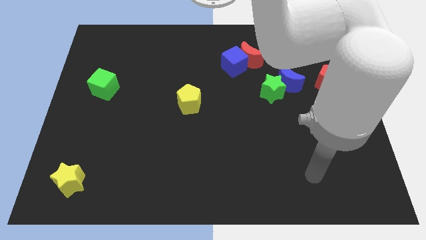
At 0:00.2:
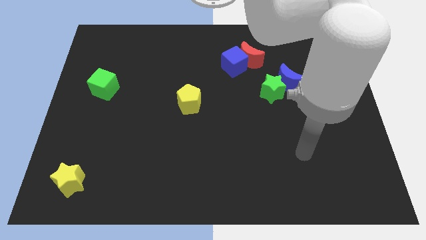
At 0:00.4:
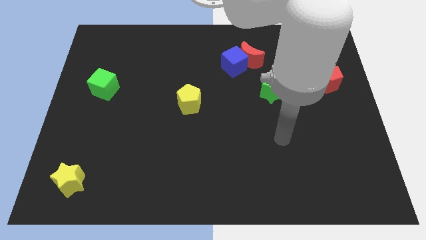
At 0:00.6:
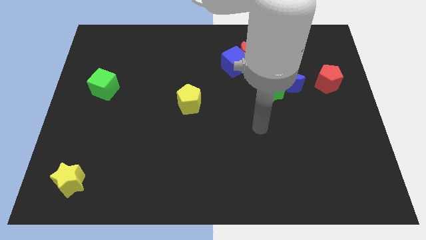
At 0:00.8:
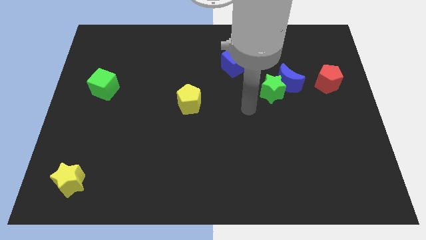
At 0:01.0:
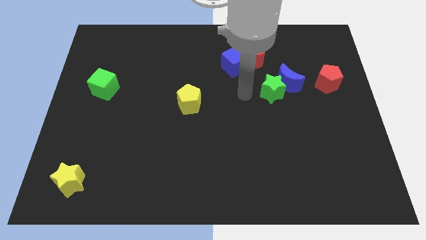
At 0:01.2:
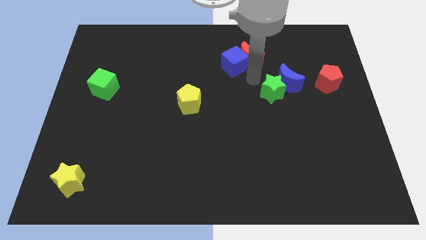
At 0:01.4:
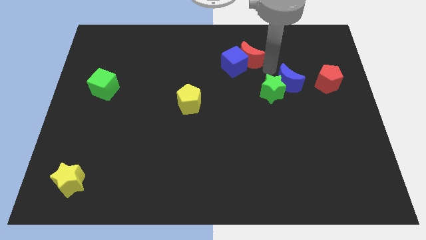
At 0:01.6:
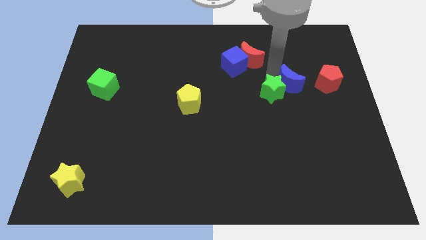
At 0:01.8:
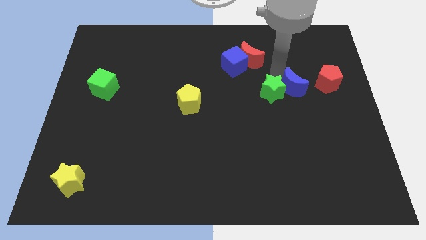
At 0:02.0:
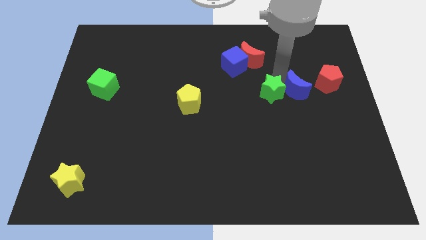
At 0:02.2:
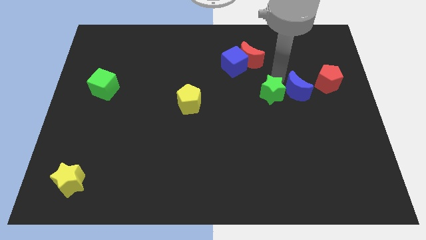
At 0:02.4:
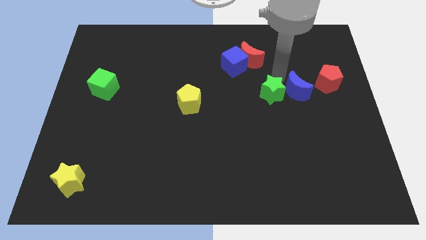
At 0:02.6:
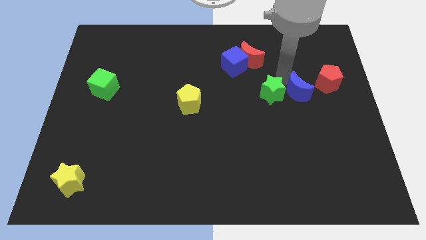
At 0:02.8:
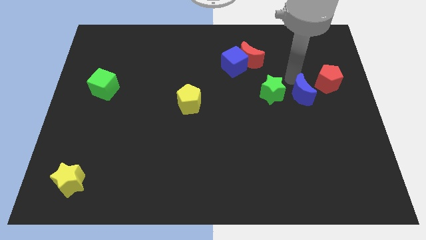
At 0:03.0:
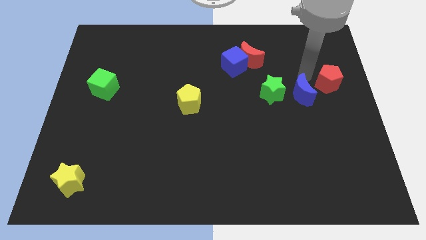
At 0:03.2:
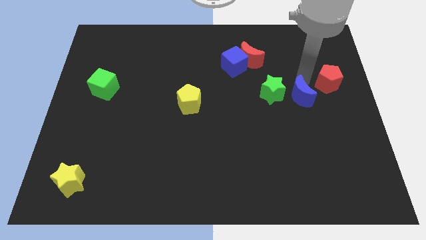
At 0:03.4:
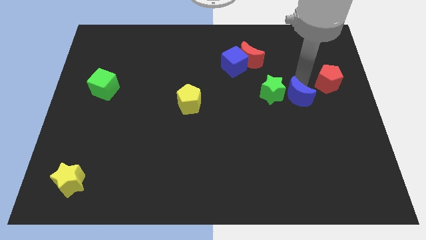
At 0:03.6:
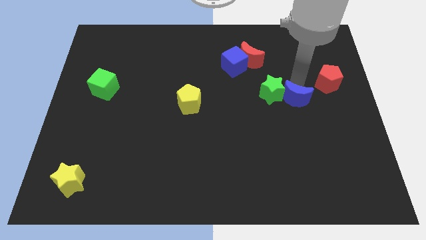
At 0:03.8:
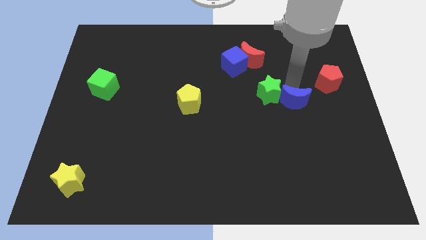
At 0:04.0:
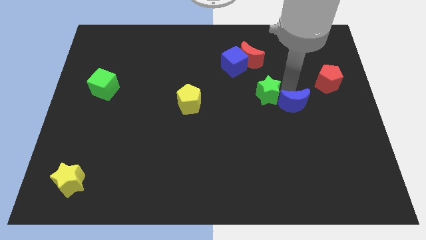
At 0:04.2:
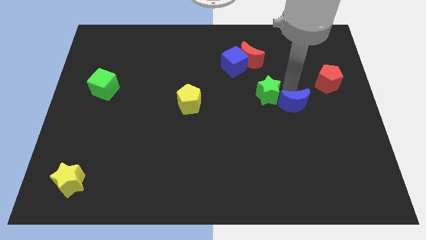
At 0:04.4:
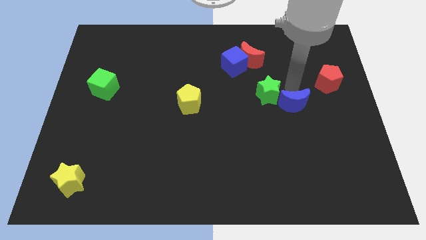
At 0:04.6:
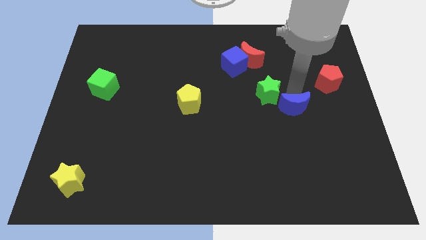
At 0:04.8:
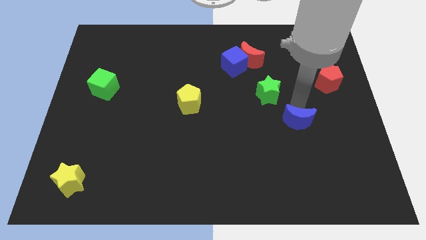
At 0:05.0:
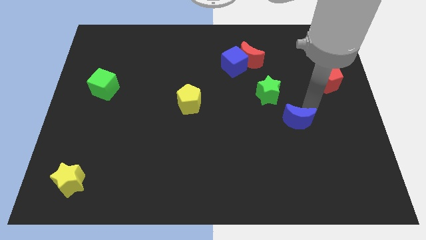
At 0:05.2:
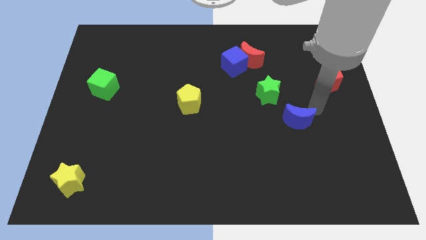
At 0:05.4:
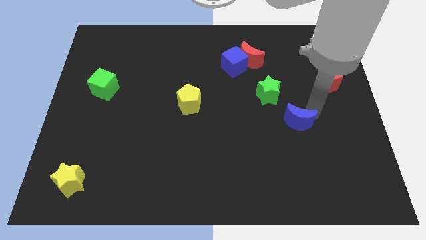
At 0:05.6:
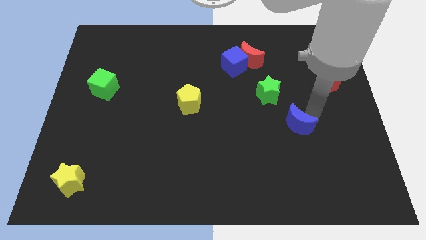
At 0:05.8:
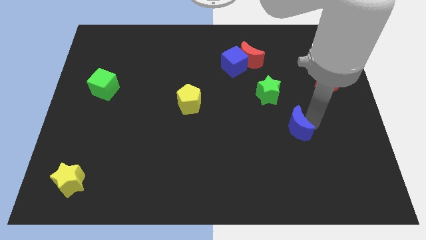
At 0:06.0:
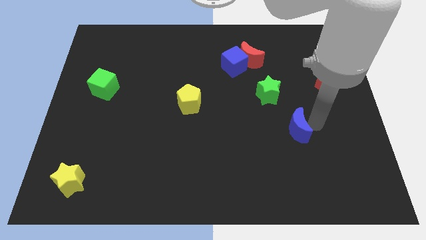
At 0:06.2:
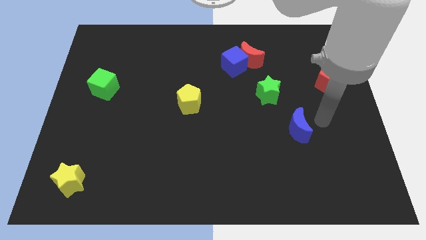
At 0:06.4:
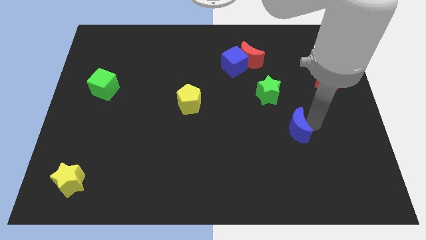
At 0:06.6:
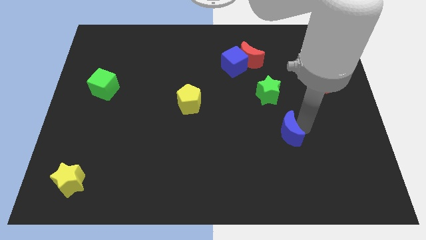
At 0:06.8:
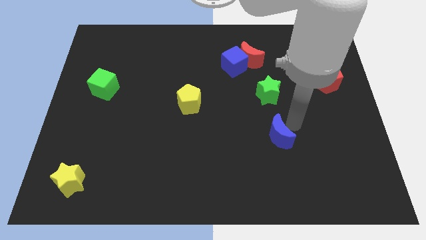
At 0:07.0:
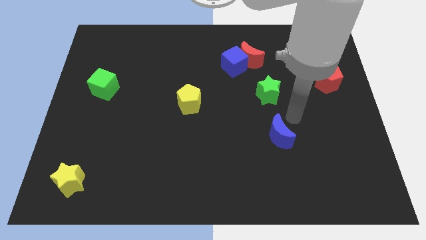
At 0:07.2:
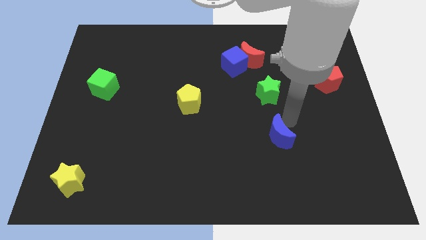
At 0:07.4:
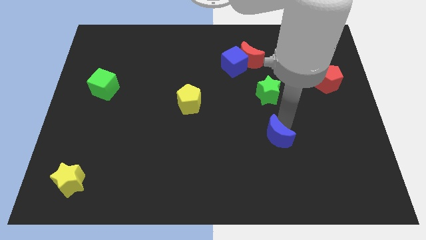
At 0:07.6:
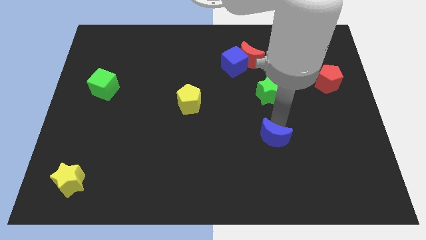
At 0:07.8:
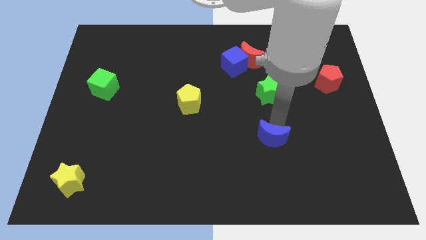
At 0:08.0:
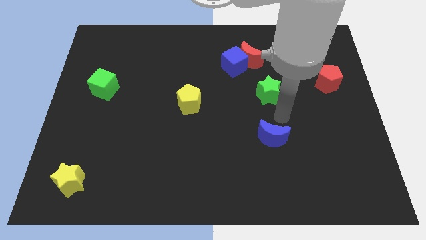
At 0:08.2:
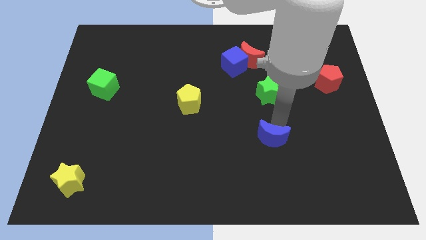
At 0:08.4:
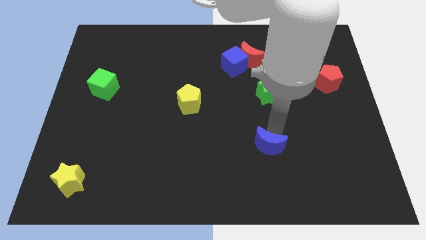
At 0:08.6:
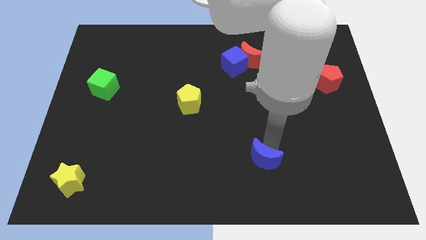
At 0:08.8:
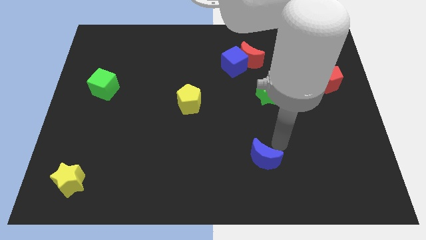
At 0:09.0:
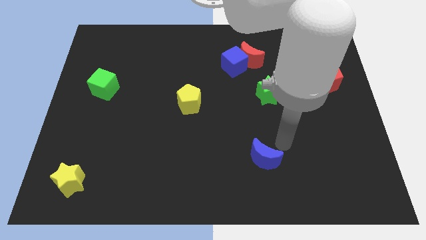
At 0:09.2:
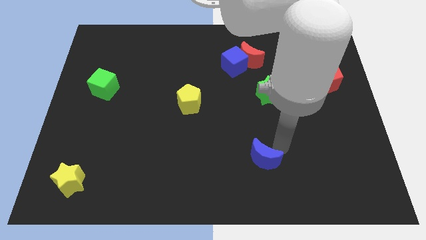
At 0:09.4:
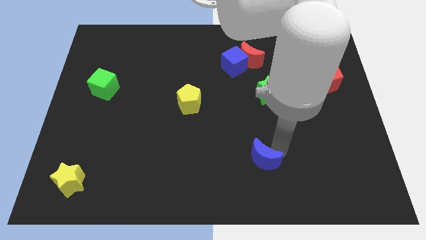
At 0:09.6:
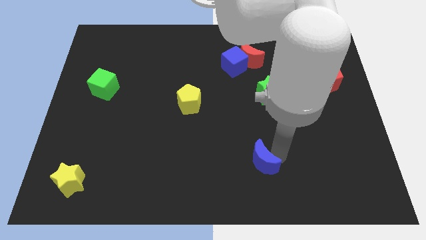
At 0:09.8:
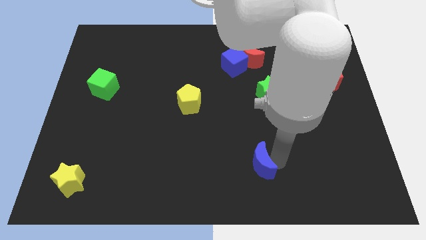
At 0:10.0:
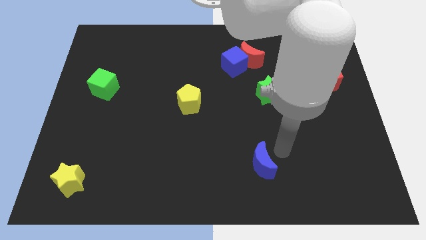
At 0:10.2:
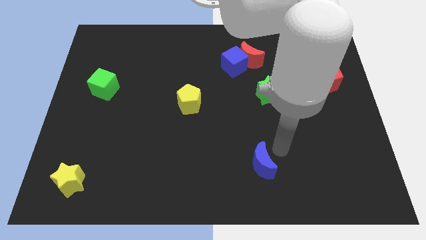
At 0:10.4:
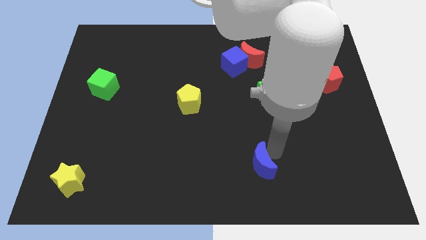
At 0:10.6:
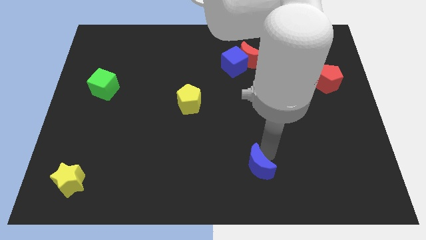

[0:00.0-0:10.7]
put the blue moon to the bottom side
